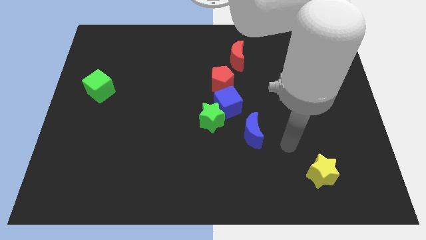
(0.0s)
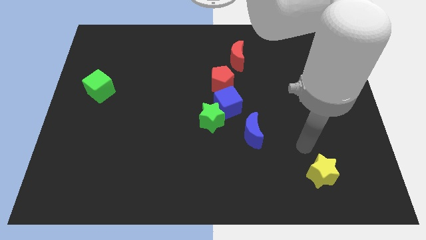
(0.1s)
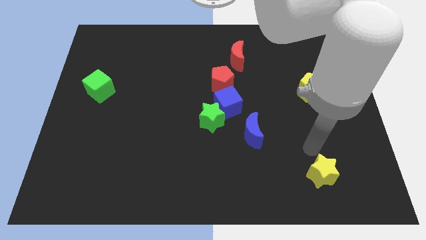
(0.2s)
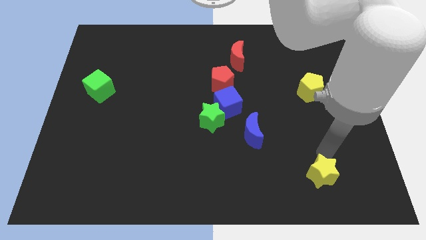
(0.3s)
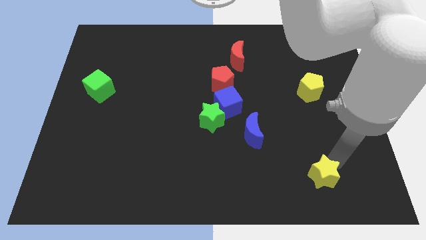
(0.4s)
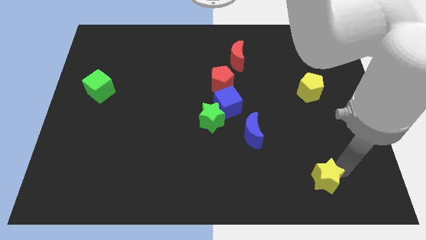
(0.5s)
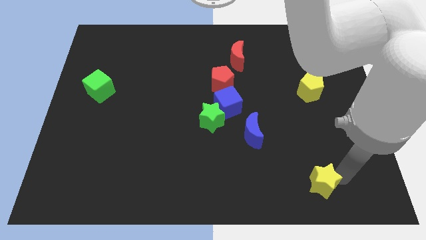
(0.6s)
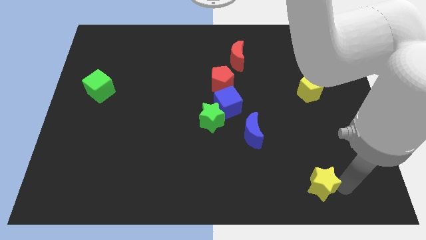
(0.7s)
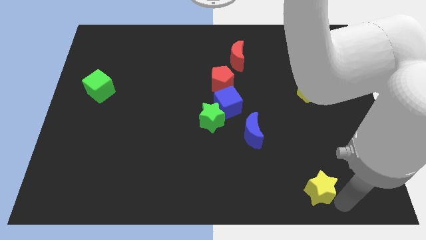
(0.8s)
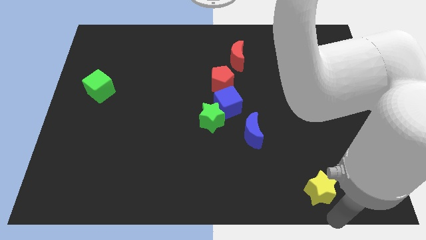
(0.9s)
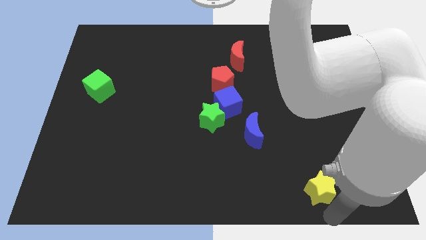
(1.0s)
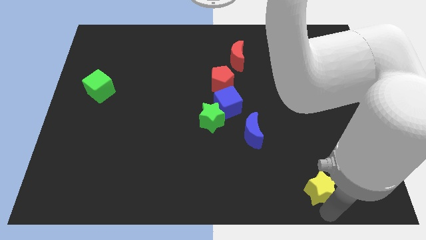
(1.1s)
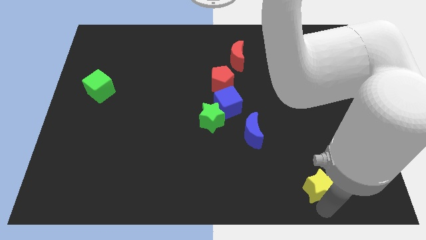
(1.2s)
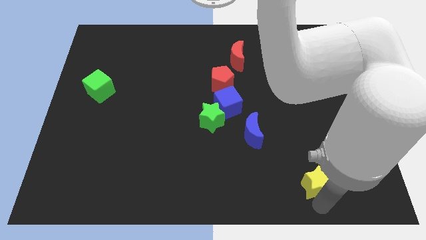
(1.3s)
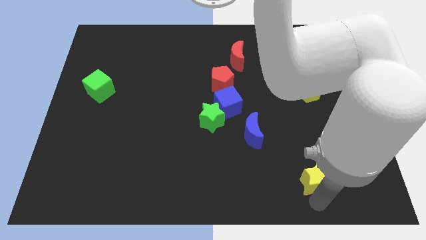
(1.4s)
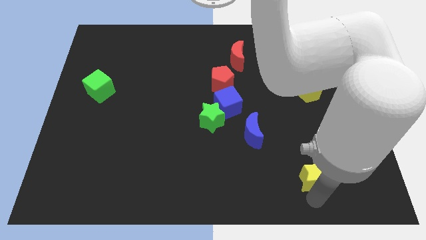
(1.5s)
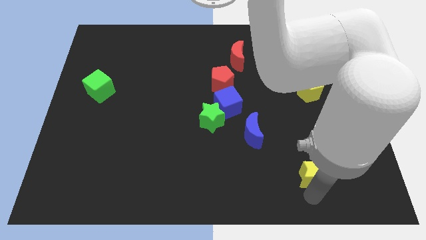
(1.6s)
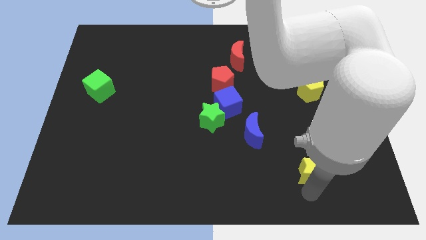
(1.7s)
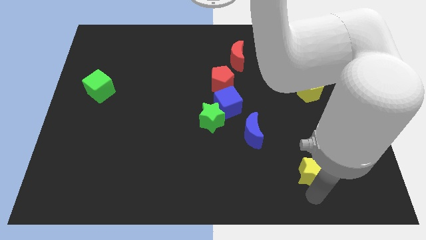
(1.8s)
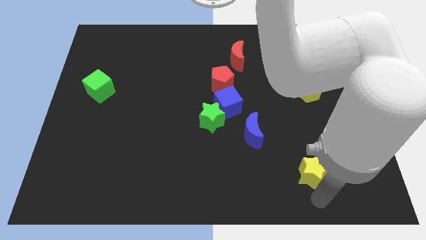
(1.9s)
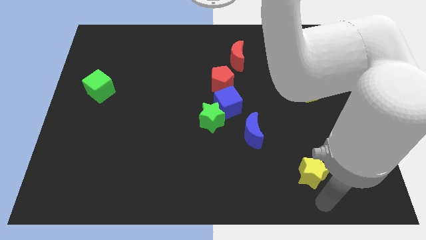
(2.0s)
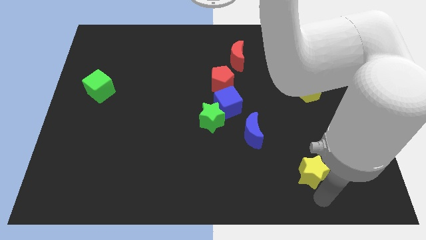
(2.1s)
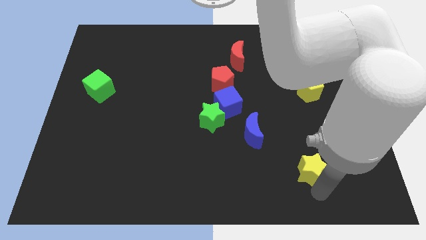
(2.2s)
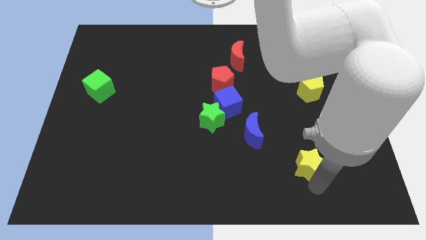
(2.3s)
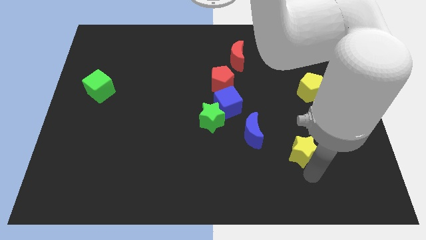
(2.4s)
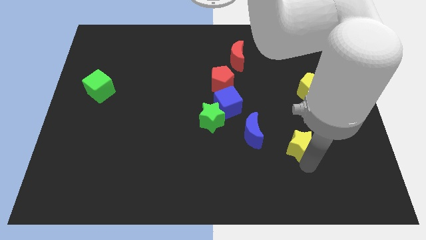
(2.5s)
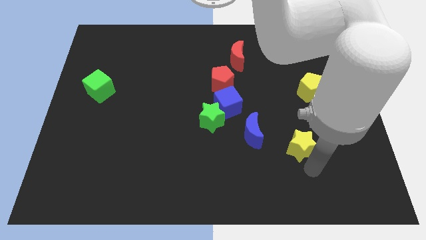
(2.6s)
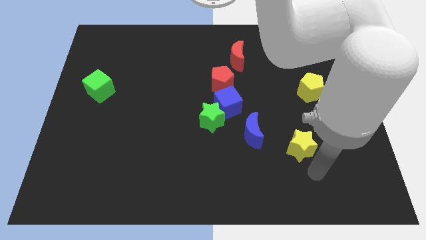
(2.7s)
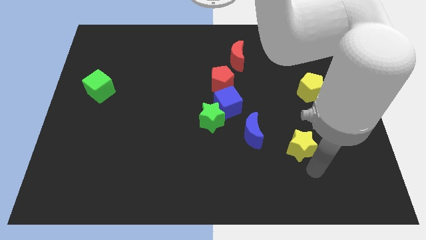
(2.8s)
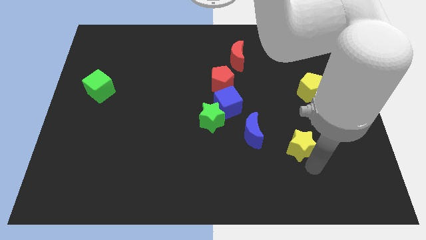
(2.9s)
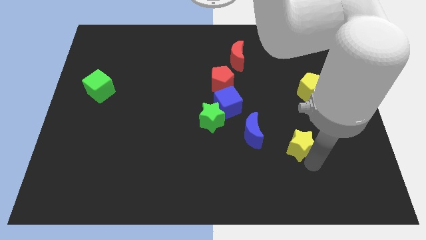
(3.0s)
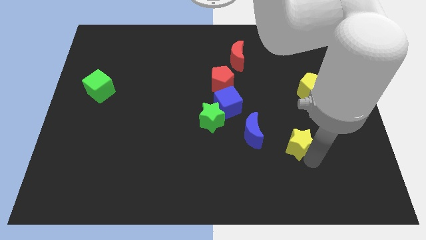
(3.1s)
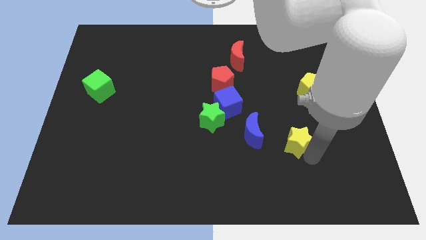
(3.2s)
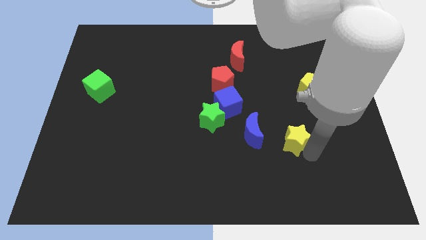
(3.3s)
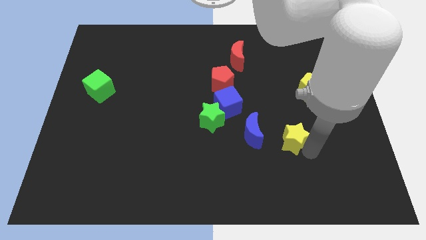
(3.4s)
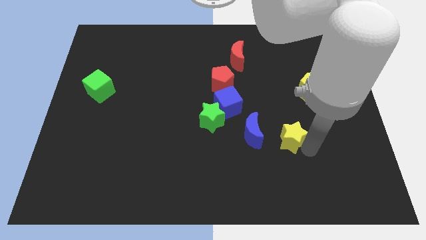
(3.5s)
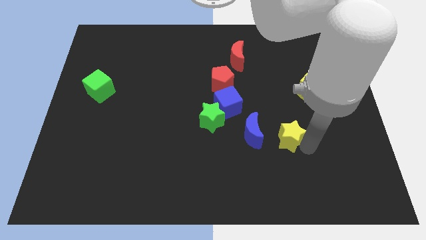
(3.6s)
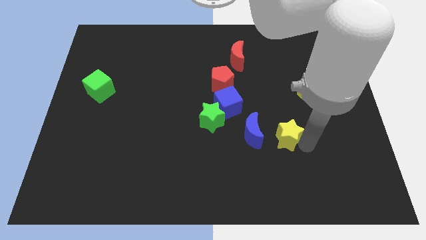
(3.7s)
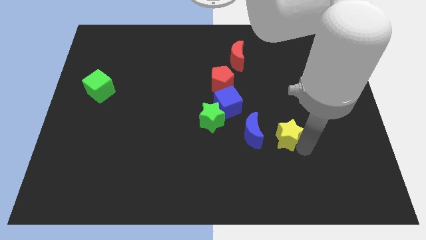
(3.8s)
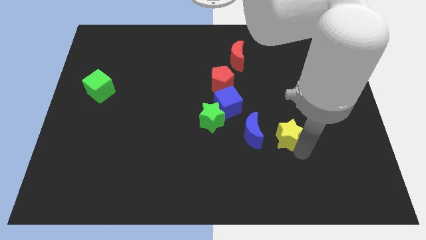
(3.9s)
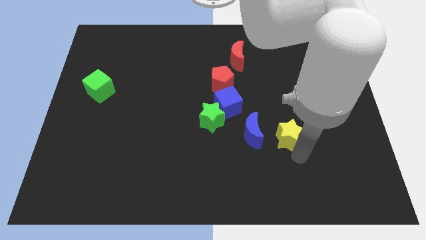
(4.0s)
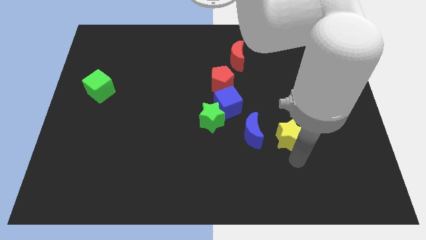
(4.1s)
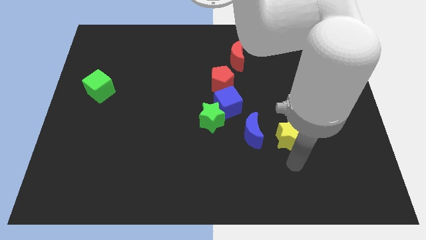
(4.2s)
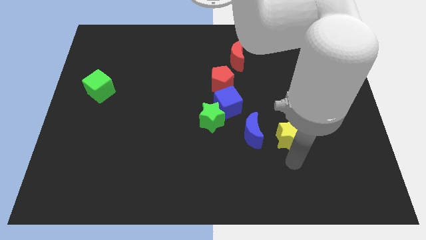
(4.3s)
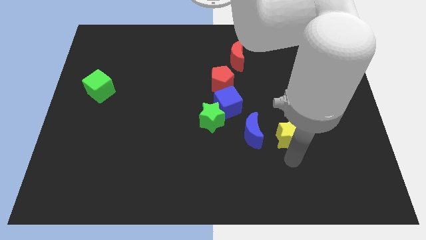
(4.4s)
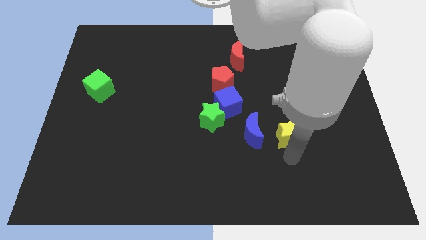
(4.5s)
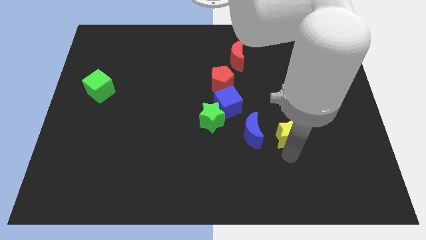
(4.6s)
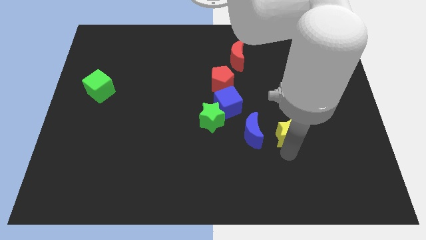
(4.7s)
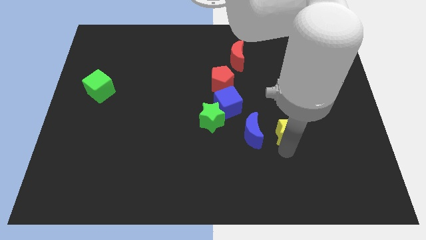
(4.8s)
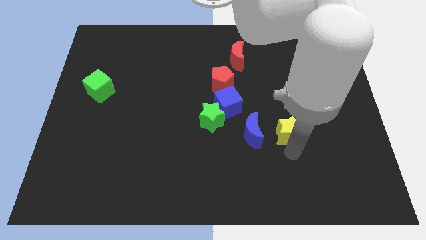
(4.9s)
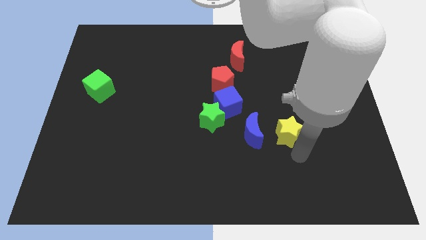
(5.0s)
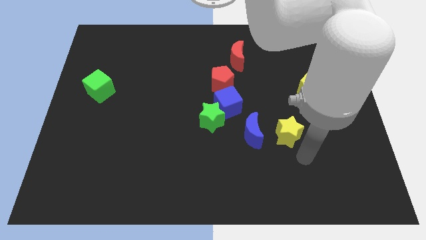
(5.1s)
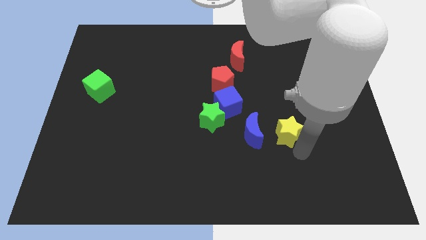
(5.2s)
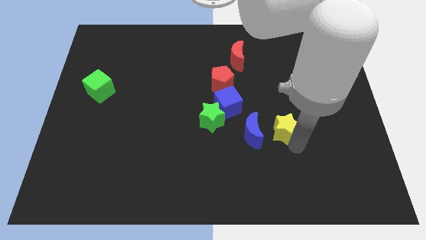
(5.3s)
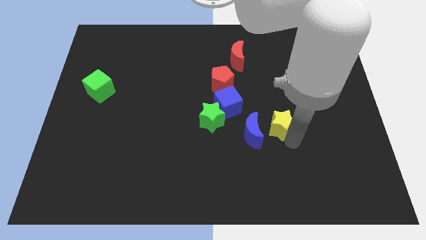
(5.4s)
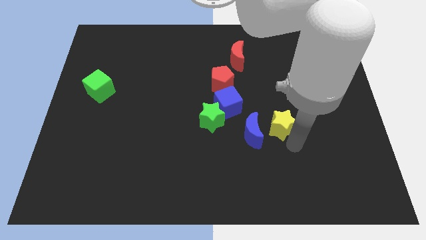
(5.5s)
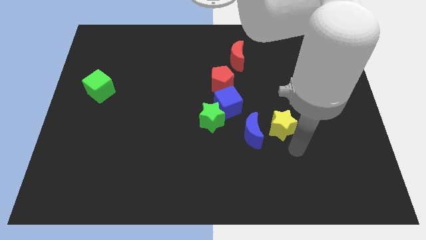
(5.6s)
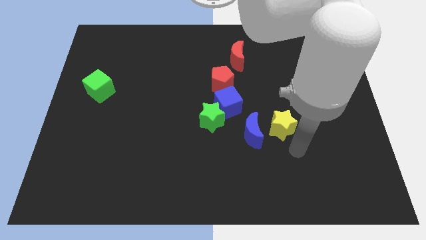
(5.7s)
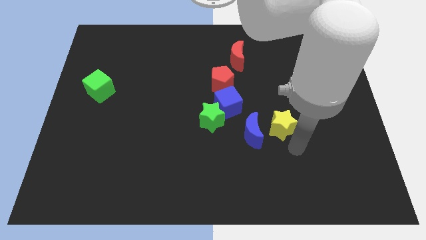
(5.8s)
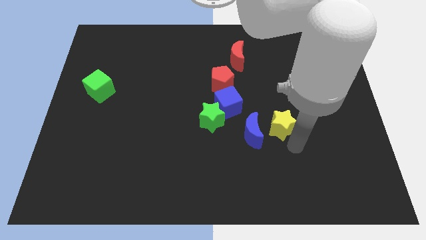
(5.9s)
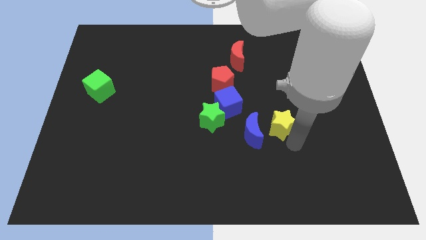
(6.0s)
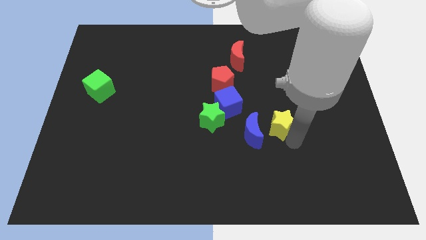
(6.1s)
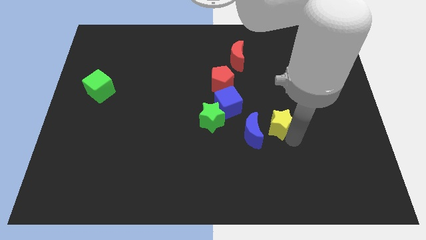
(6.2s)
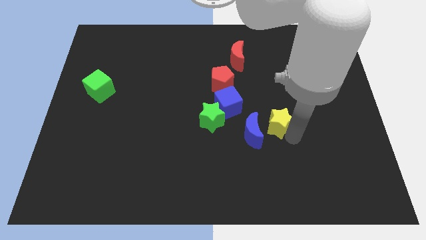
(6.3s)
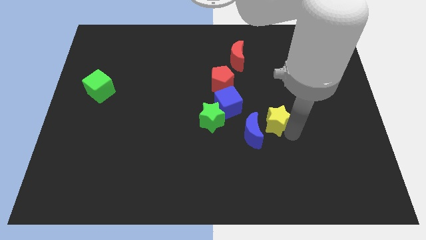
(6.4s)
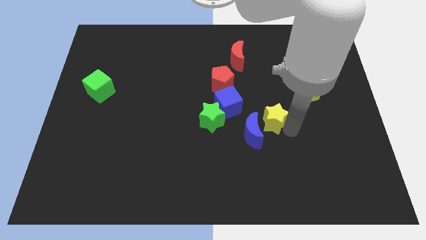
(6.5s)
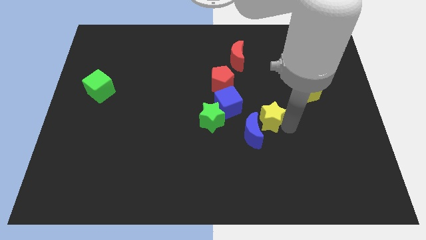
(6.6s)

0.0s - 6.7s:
put the yellow star above the blue moon

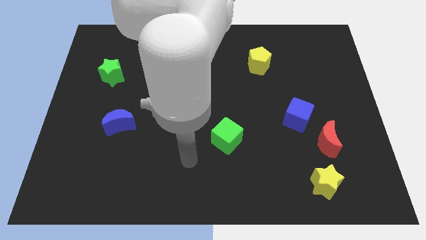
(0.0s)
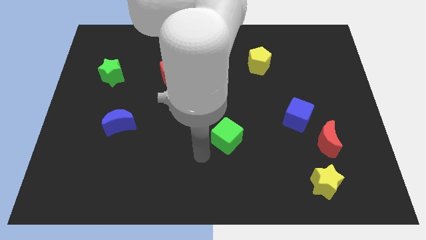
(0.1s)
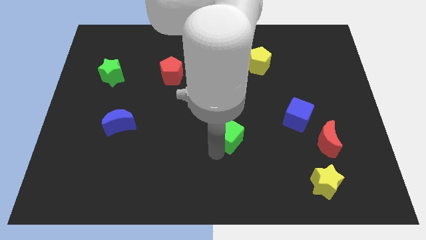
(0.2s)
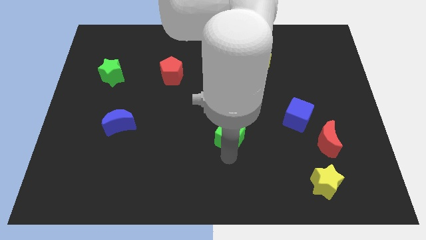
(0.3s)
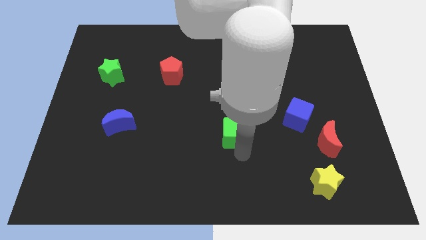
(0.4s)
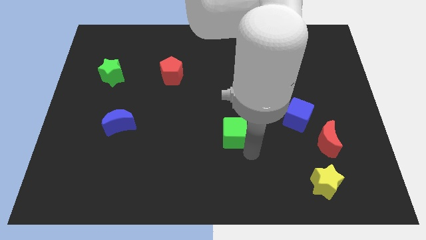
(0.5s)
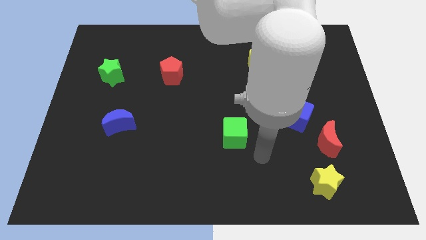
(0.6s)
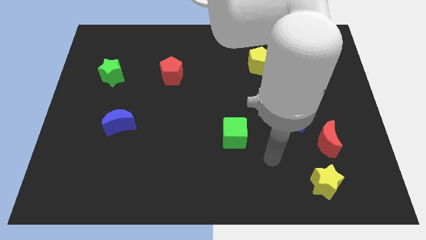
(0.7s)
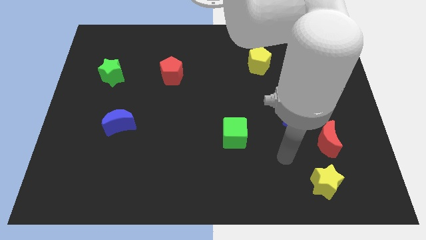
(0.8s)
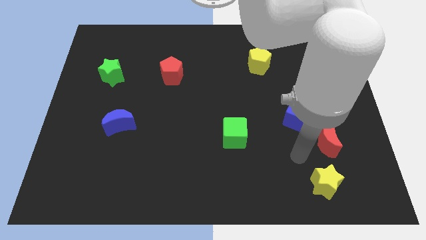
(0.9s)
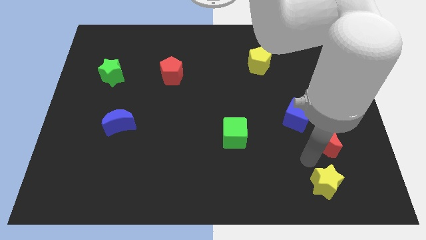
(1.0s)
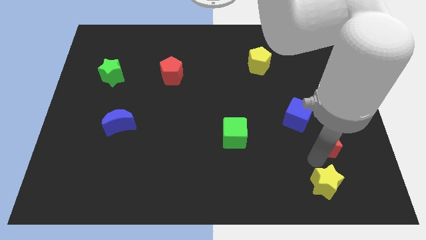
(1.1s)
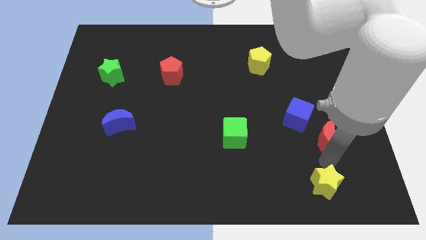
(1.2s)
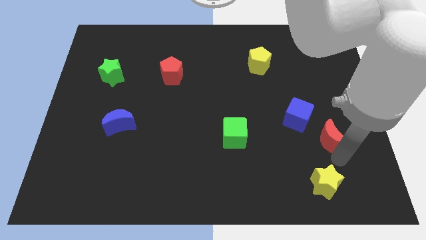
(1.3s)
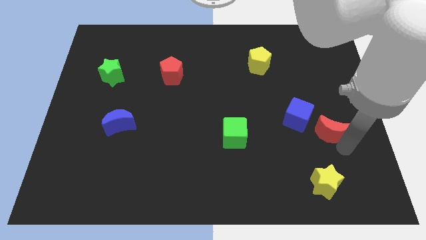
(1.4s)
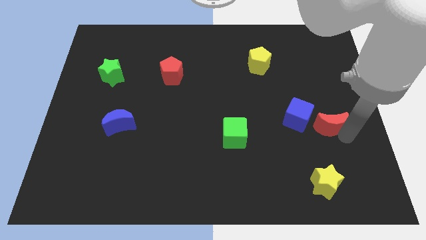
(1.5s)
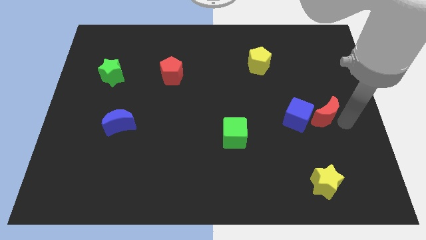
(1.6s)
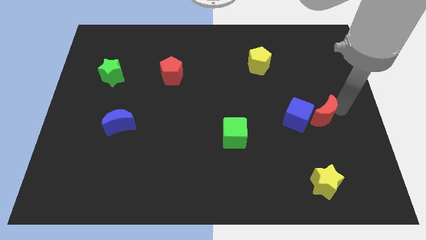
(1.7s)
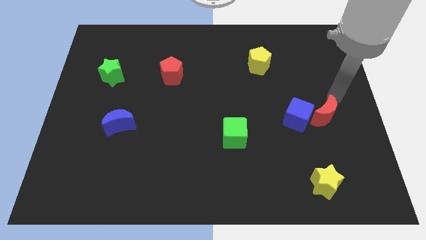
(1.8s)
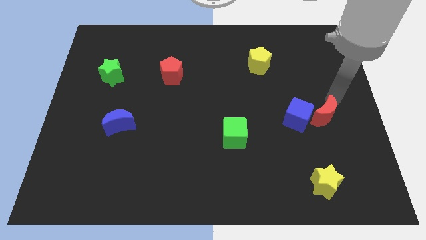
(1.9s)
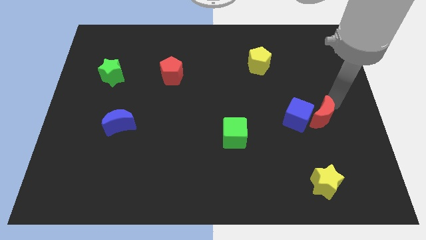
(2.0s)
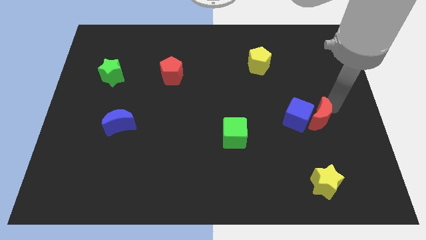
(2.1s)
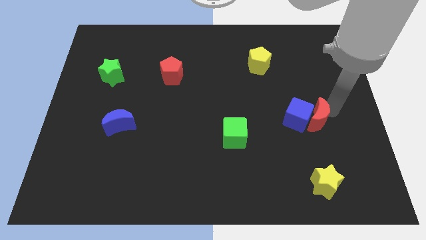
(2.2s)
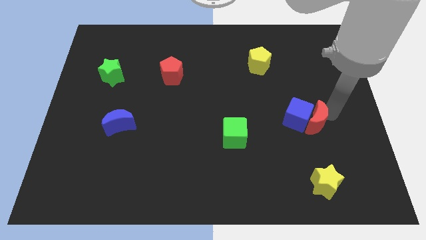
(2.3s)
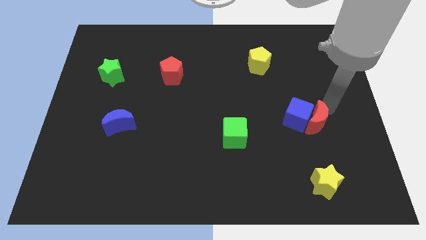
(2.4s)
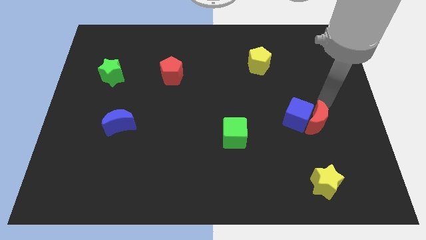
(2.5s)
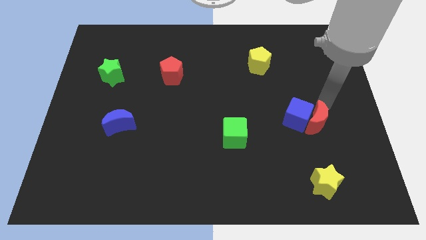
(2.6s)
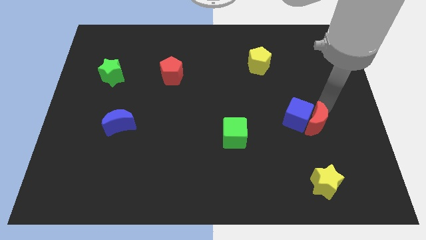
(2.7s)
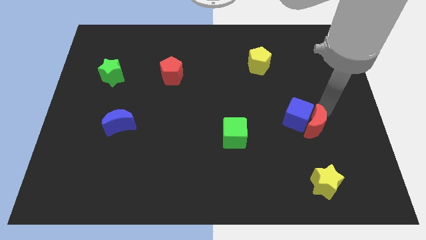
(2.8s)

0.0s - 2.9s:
slide the red moon to the bottom side of the blue cube
